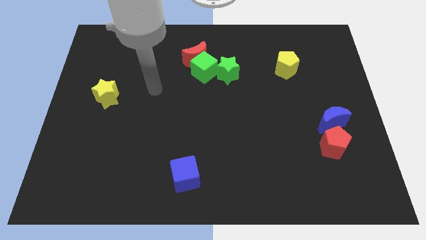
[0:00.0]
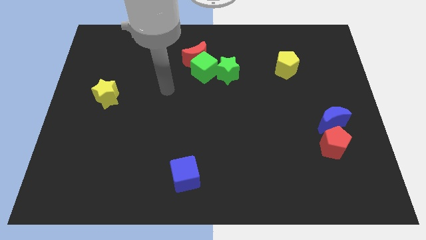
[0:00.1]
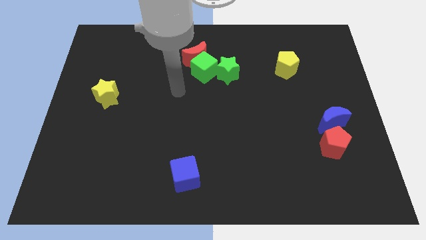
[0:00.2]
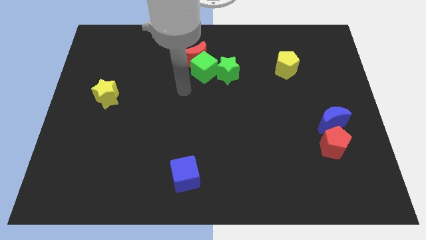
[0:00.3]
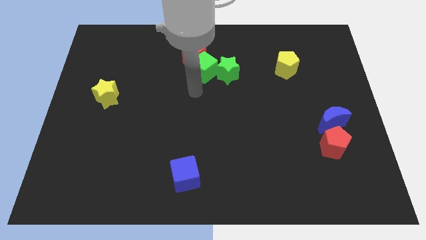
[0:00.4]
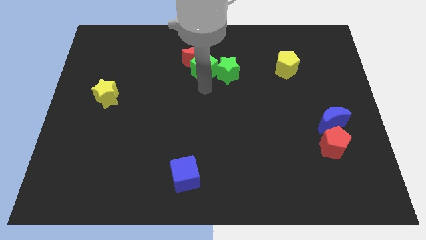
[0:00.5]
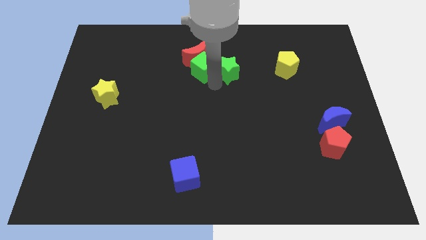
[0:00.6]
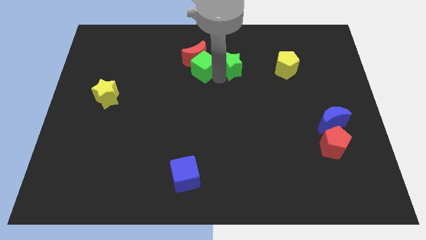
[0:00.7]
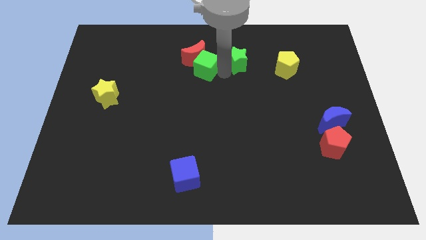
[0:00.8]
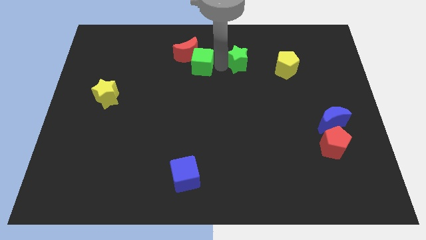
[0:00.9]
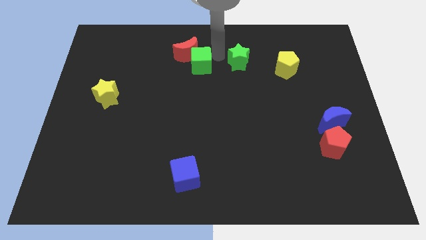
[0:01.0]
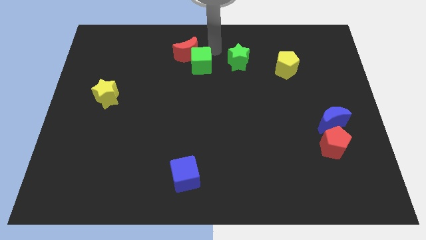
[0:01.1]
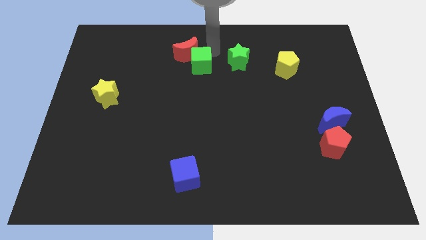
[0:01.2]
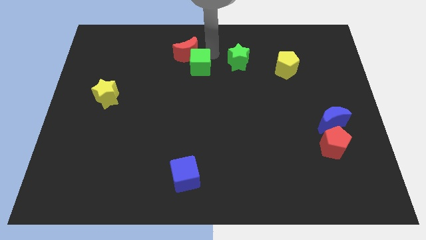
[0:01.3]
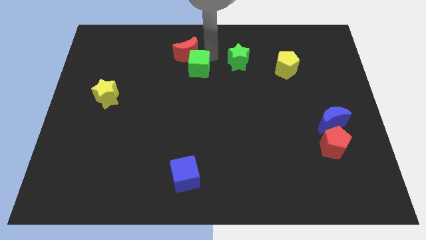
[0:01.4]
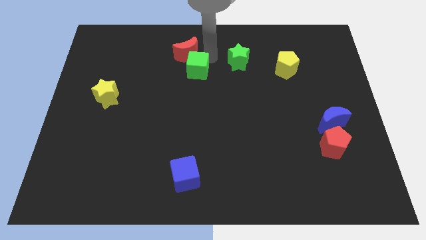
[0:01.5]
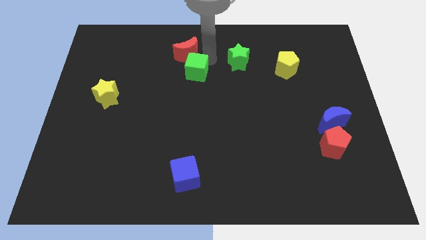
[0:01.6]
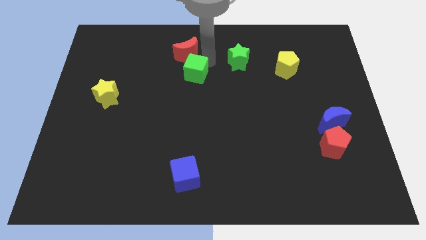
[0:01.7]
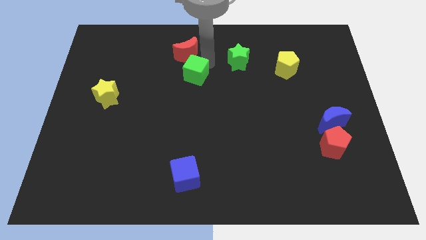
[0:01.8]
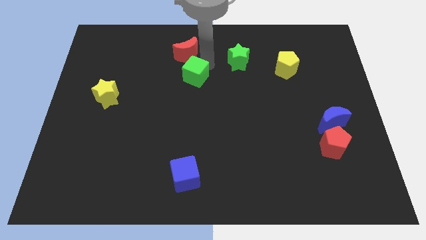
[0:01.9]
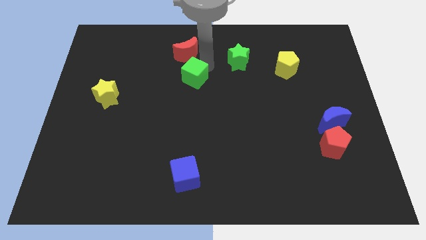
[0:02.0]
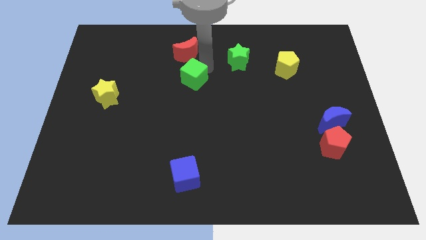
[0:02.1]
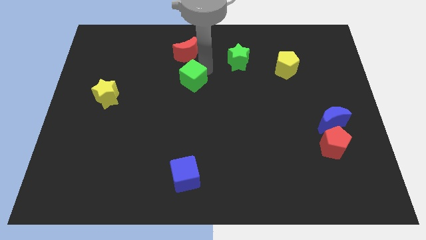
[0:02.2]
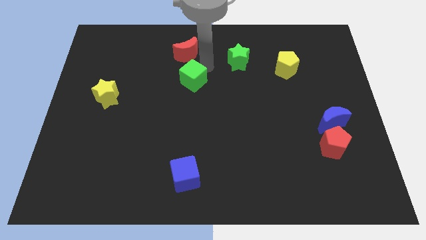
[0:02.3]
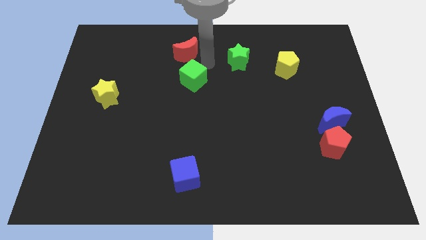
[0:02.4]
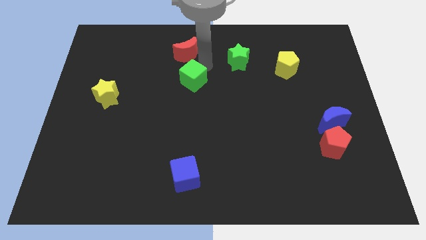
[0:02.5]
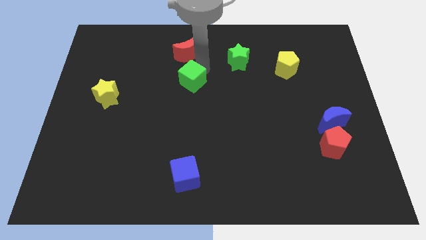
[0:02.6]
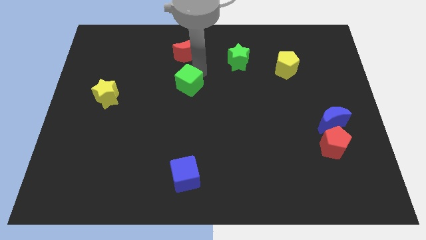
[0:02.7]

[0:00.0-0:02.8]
separate the green cube from the red moon and green star

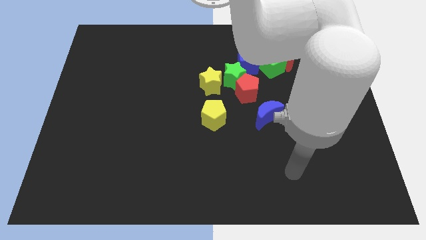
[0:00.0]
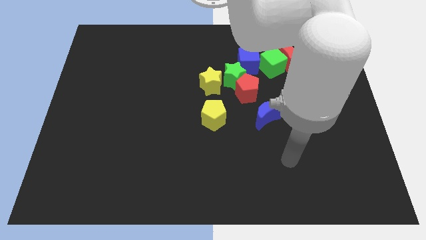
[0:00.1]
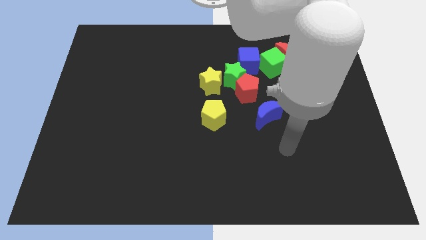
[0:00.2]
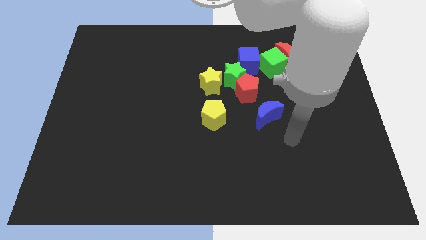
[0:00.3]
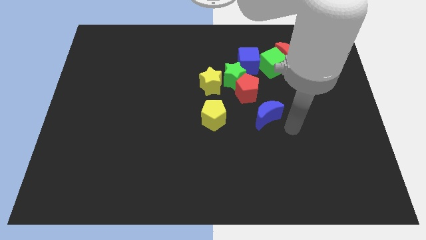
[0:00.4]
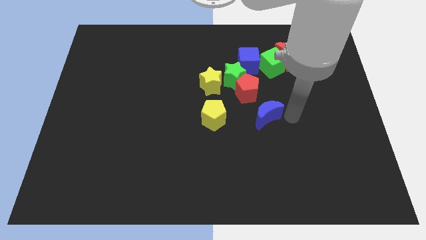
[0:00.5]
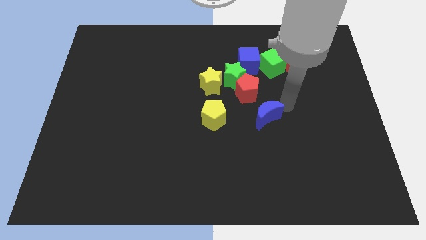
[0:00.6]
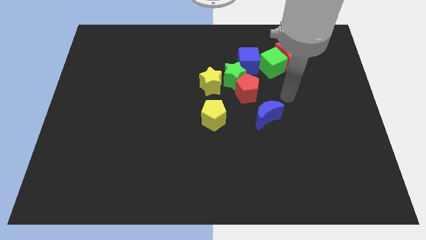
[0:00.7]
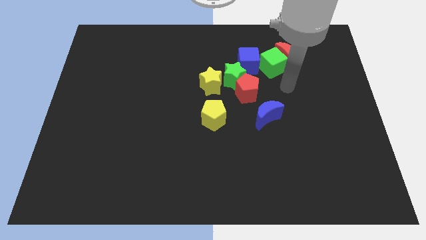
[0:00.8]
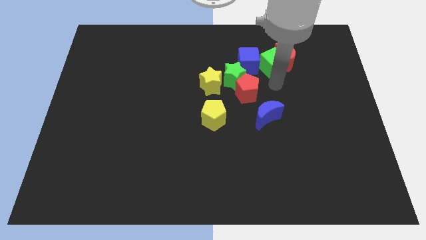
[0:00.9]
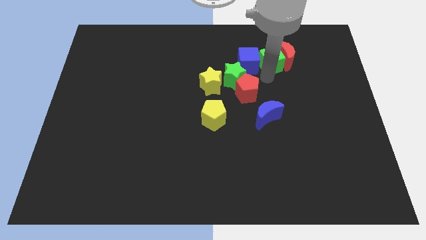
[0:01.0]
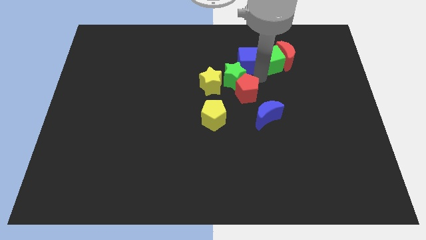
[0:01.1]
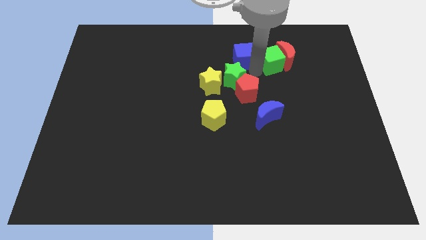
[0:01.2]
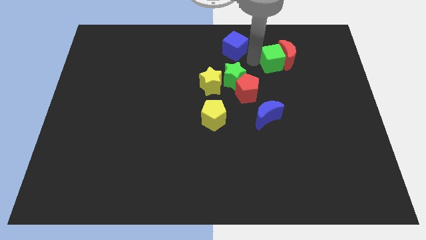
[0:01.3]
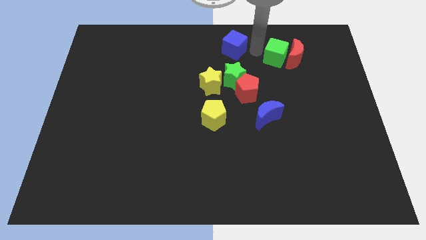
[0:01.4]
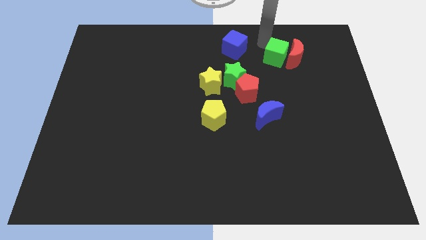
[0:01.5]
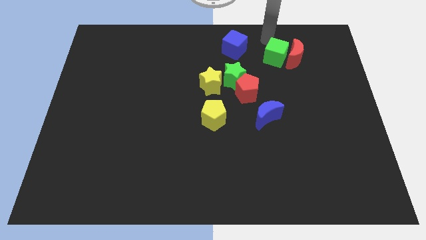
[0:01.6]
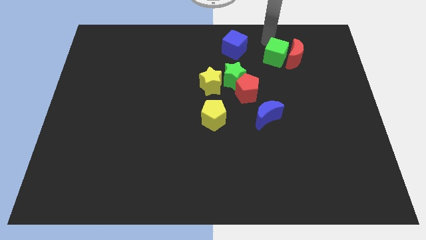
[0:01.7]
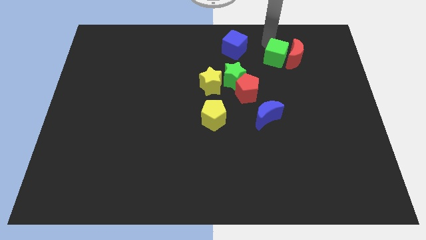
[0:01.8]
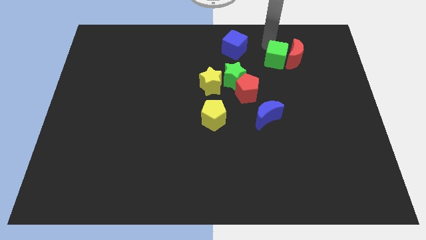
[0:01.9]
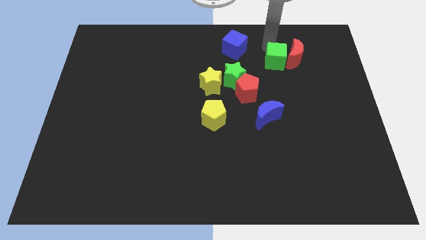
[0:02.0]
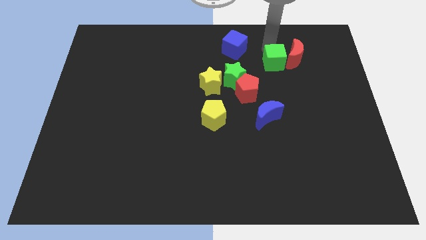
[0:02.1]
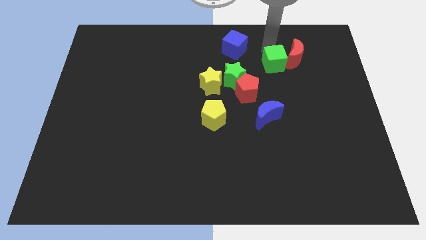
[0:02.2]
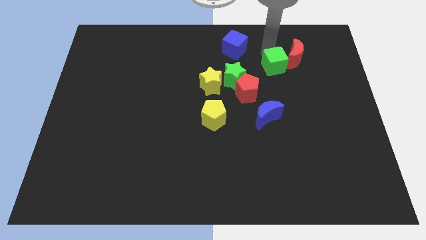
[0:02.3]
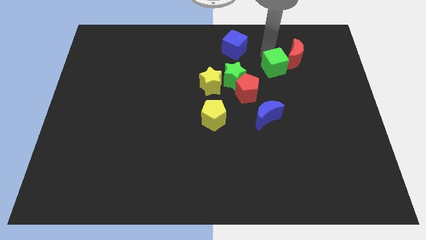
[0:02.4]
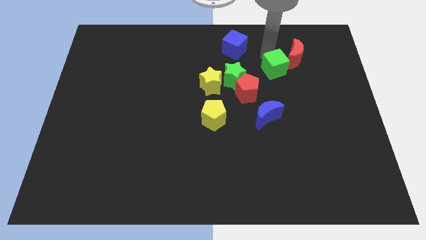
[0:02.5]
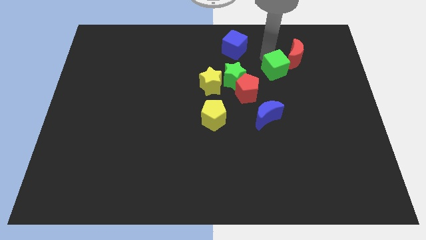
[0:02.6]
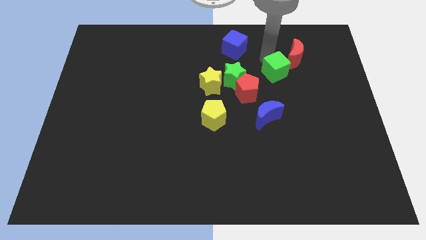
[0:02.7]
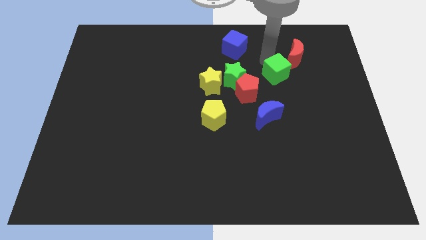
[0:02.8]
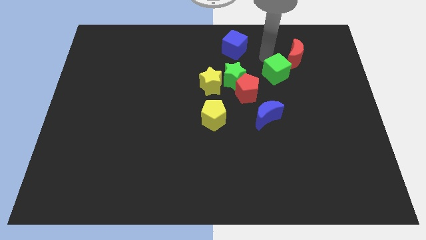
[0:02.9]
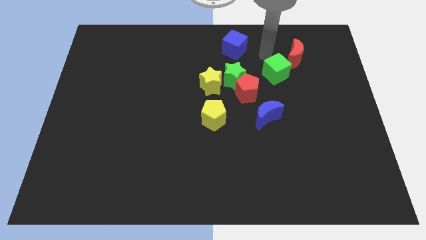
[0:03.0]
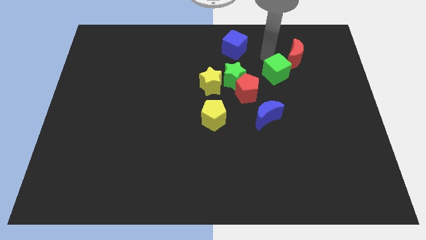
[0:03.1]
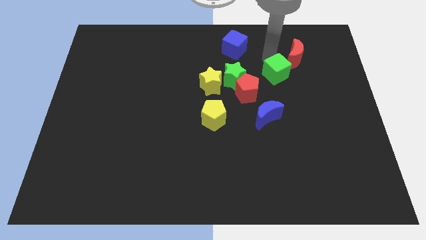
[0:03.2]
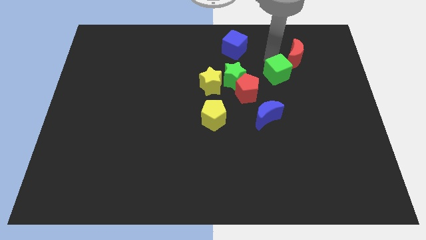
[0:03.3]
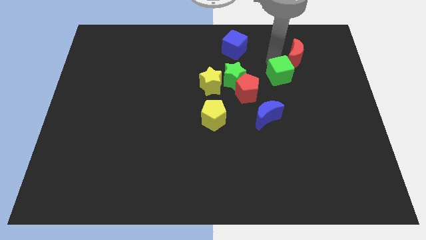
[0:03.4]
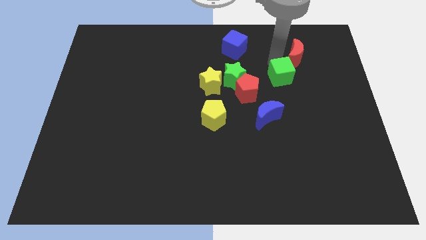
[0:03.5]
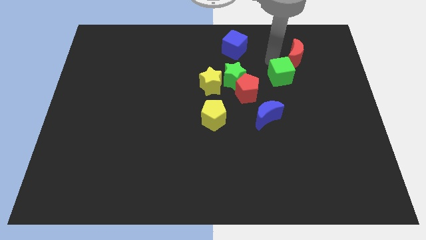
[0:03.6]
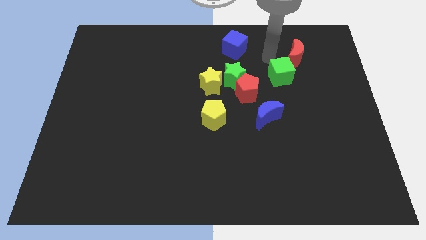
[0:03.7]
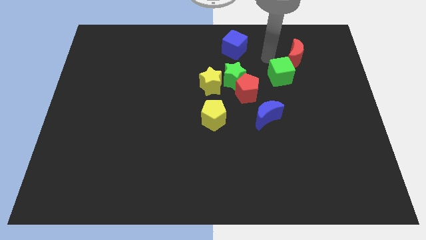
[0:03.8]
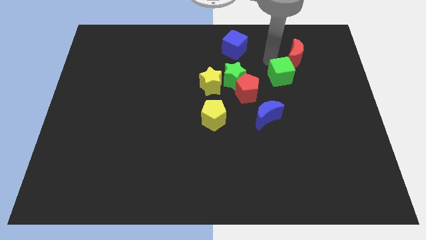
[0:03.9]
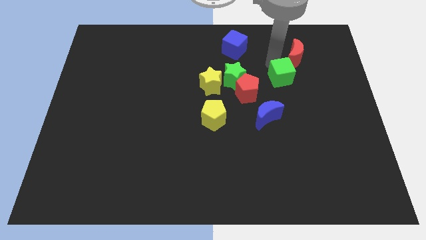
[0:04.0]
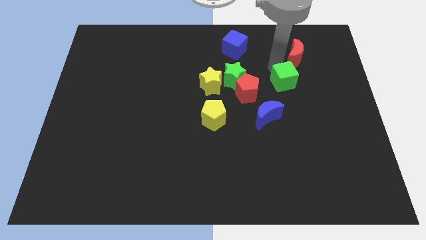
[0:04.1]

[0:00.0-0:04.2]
move the green cube away from the red moon and blue cube

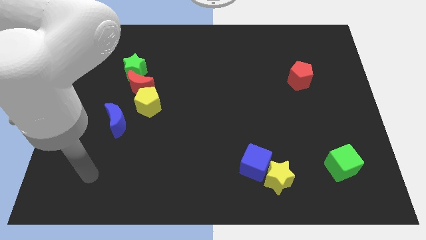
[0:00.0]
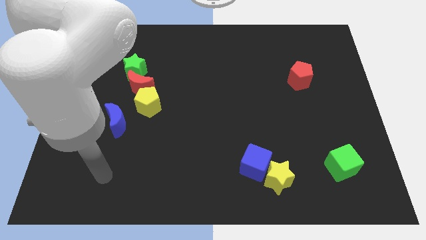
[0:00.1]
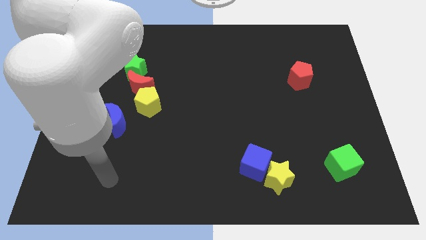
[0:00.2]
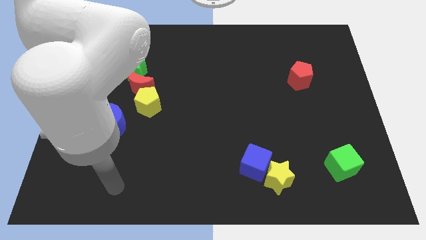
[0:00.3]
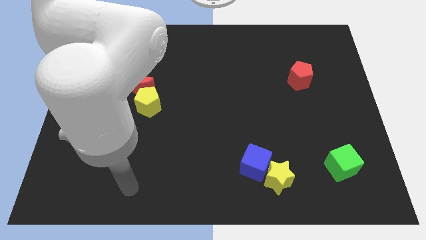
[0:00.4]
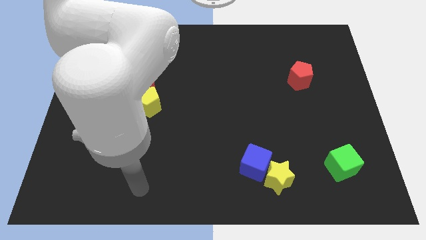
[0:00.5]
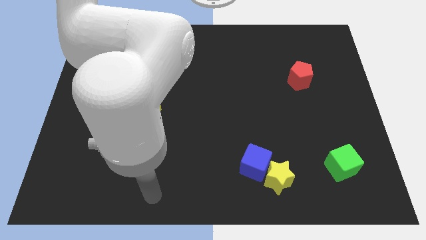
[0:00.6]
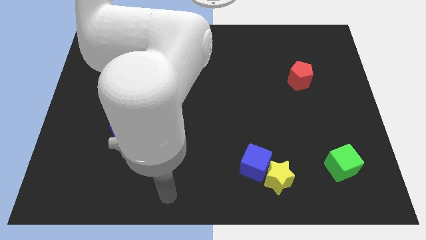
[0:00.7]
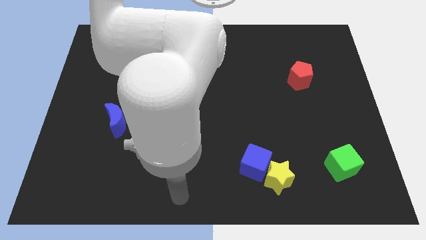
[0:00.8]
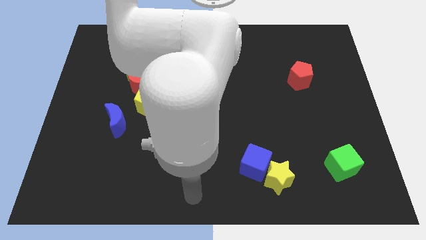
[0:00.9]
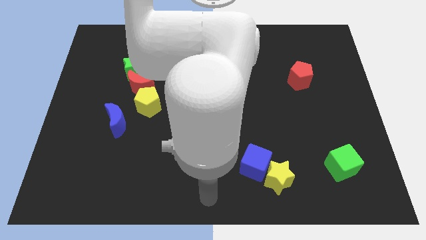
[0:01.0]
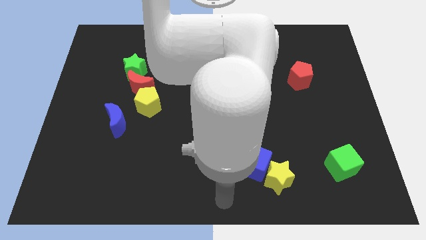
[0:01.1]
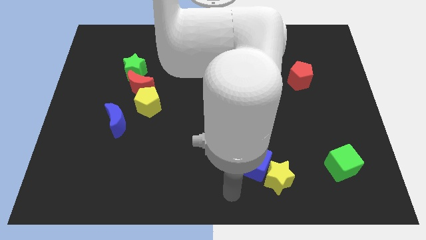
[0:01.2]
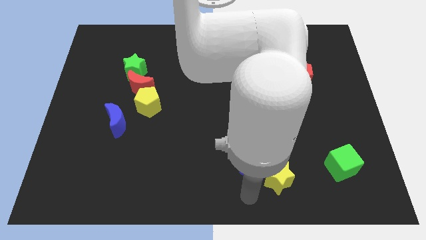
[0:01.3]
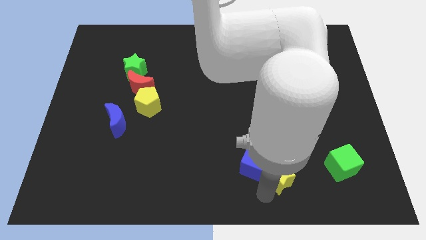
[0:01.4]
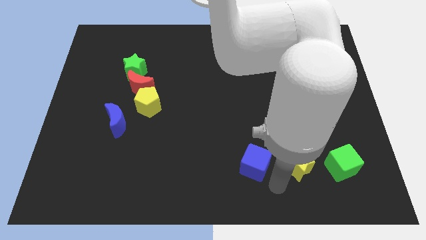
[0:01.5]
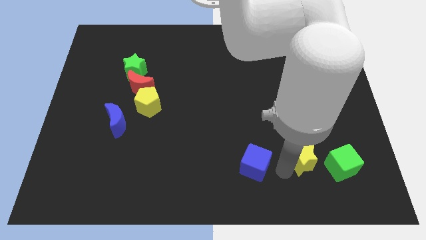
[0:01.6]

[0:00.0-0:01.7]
separate the blue cube from the yellow star

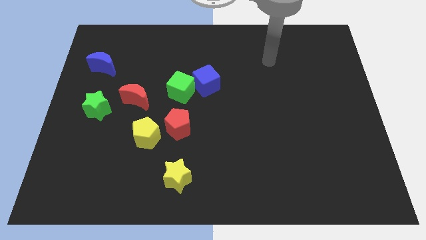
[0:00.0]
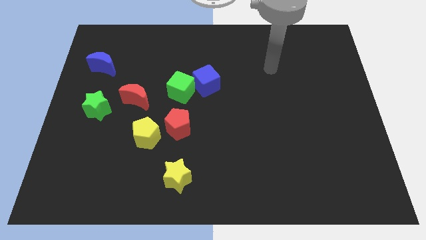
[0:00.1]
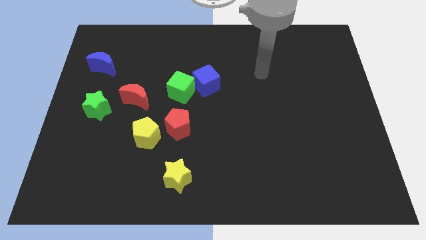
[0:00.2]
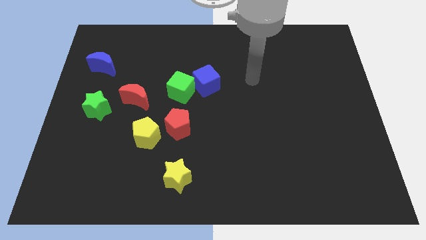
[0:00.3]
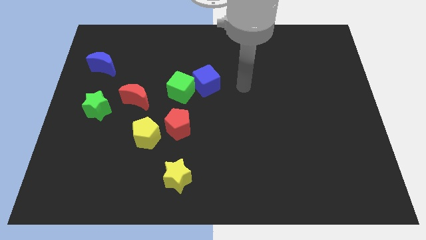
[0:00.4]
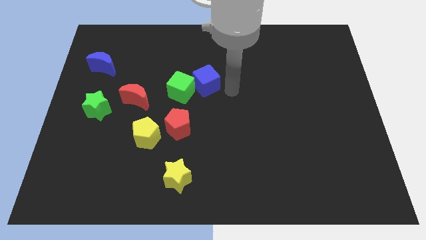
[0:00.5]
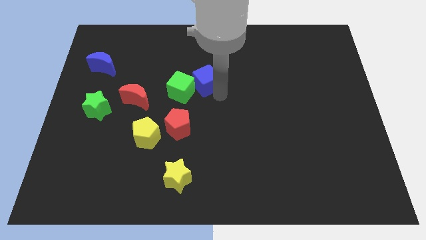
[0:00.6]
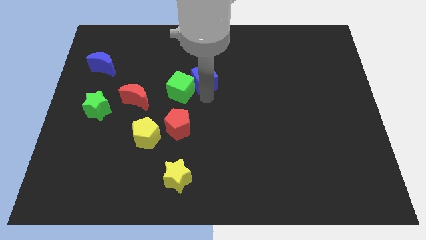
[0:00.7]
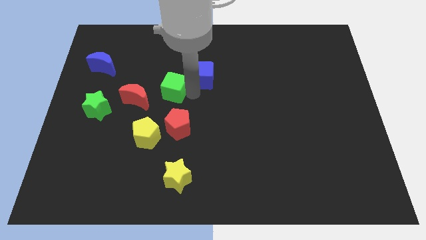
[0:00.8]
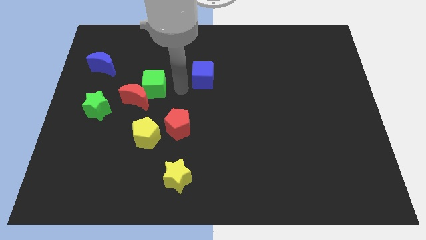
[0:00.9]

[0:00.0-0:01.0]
separate the blue cube from the green cube
